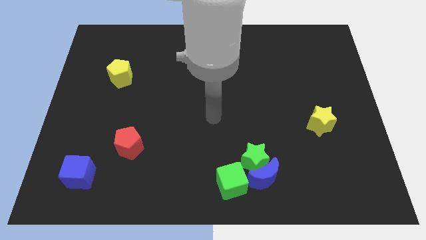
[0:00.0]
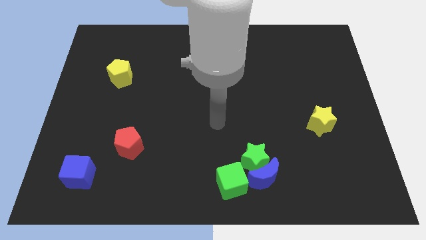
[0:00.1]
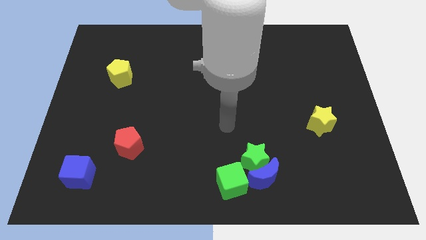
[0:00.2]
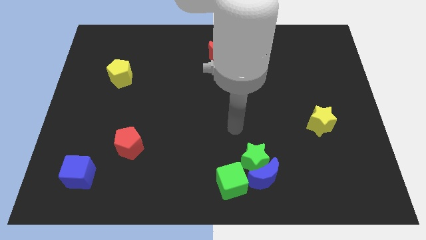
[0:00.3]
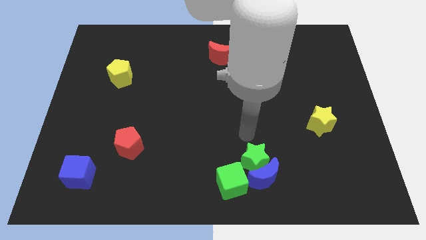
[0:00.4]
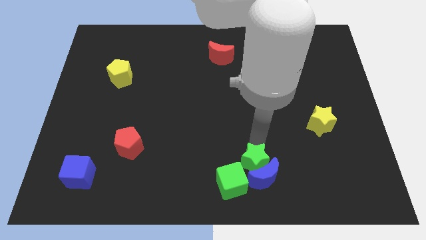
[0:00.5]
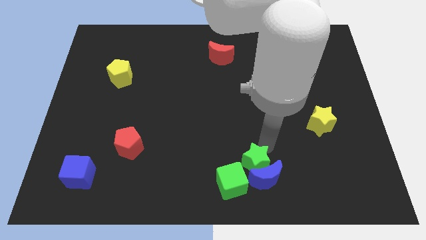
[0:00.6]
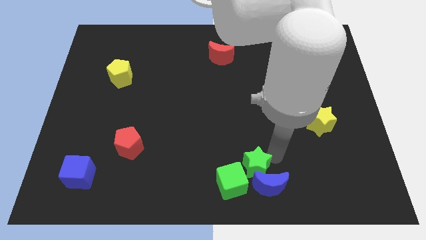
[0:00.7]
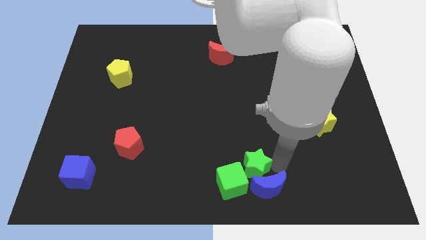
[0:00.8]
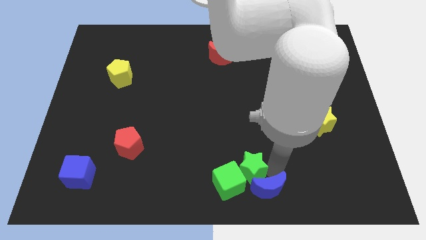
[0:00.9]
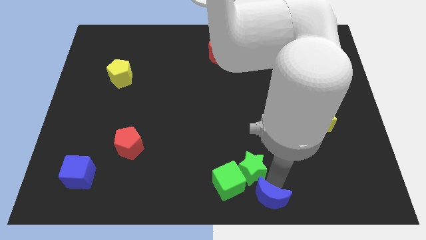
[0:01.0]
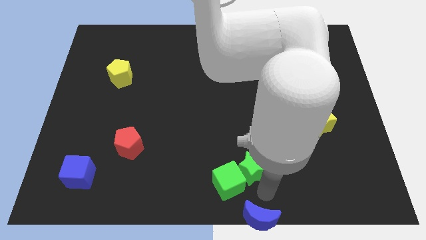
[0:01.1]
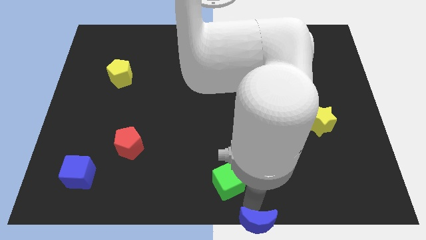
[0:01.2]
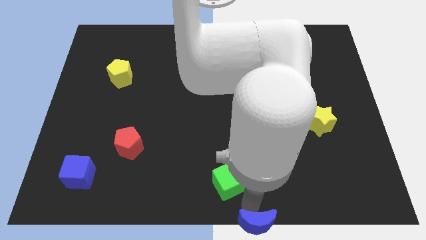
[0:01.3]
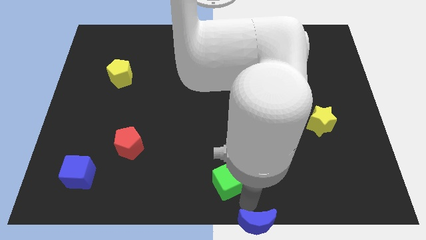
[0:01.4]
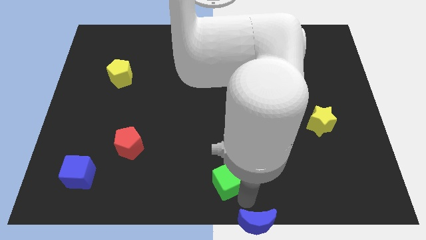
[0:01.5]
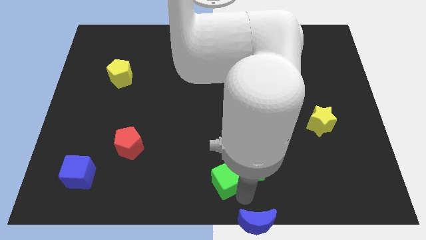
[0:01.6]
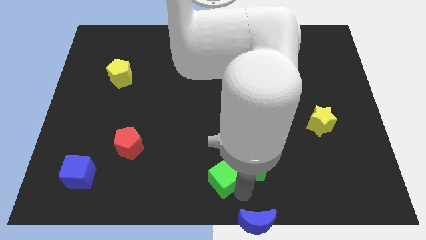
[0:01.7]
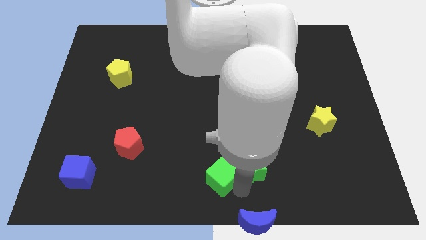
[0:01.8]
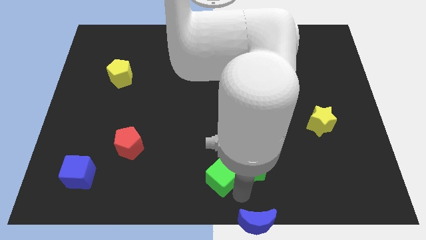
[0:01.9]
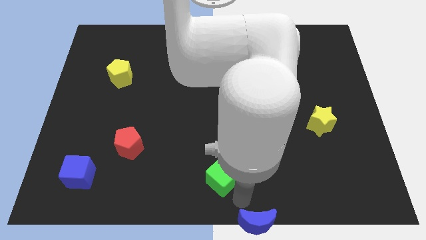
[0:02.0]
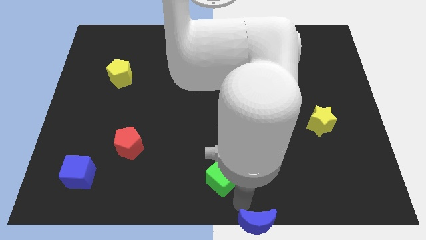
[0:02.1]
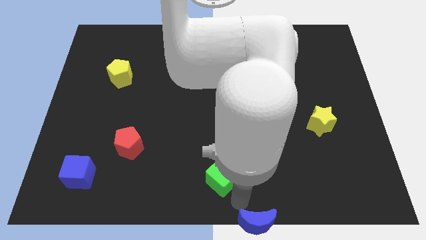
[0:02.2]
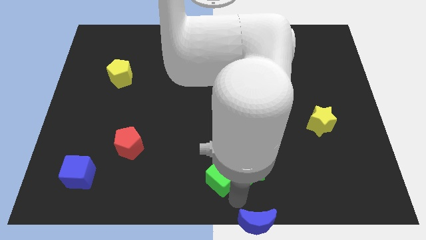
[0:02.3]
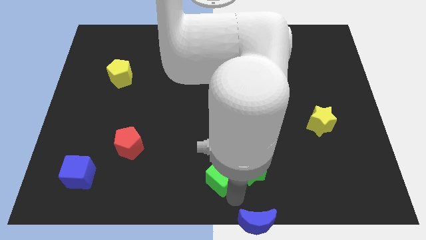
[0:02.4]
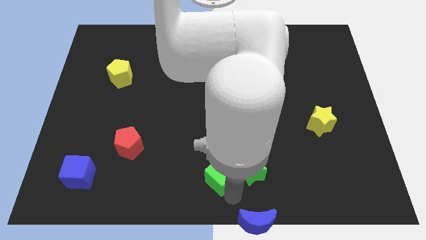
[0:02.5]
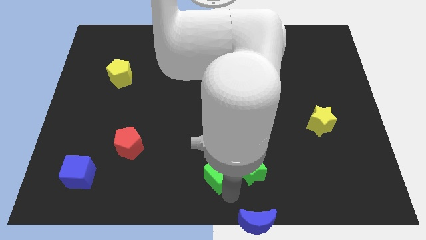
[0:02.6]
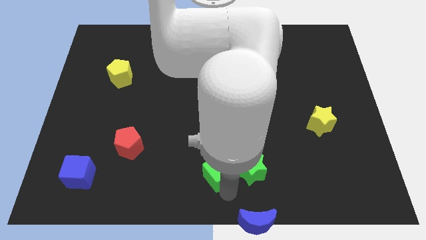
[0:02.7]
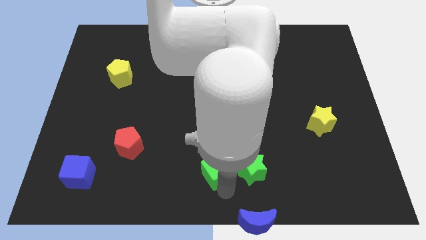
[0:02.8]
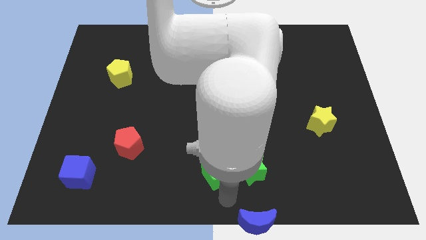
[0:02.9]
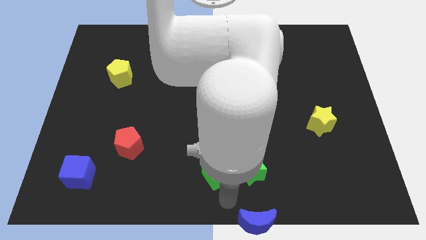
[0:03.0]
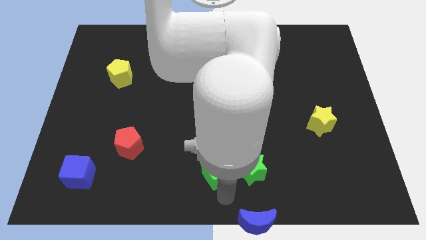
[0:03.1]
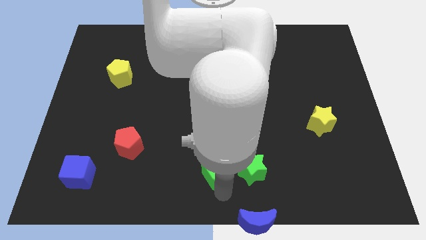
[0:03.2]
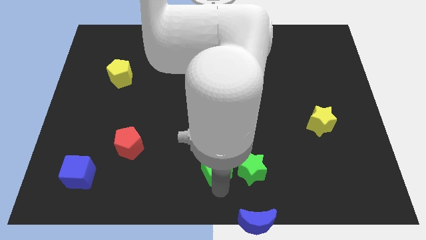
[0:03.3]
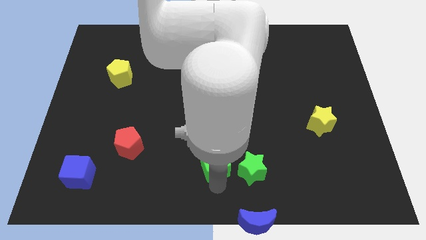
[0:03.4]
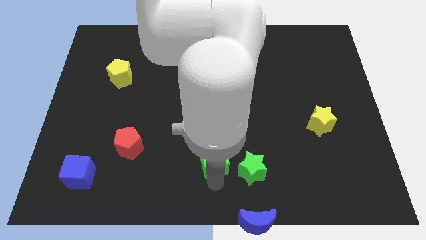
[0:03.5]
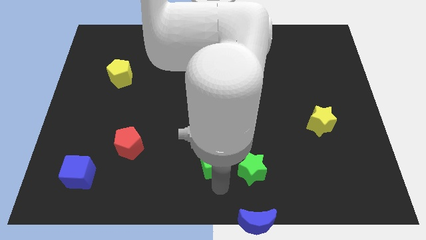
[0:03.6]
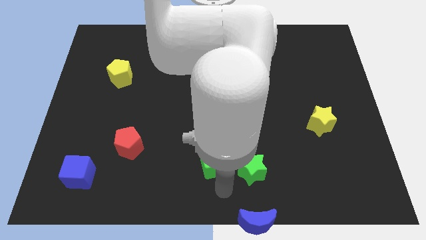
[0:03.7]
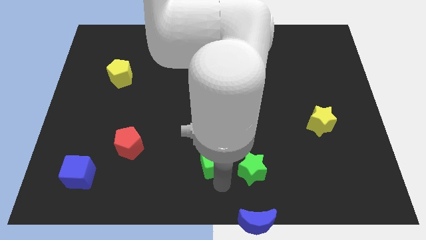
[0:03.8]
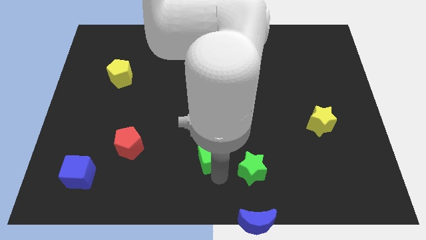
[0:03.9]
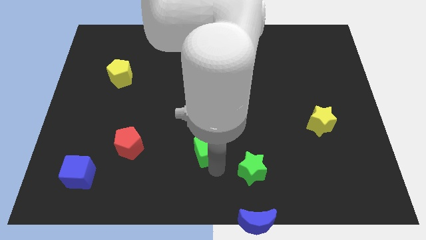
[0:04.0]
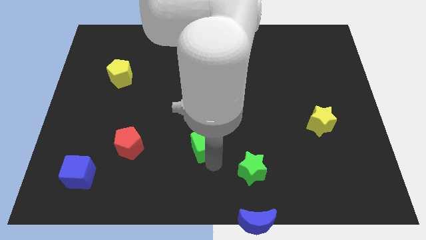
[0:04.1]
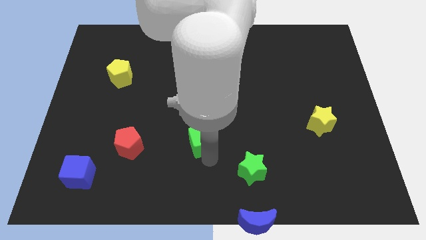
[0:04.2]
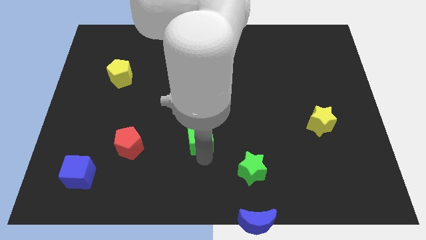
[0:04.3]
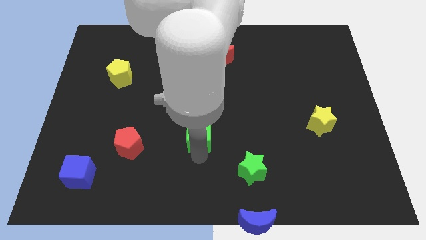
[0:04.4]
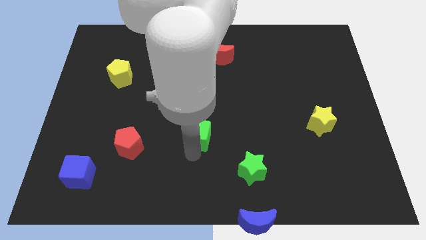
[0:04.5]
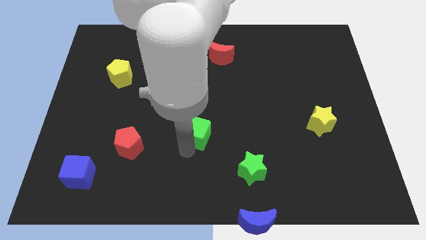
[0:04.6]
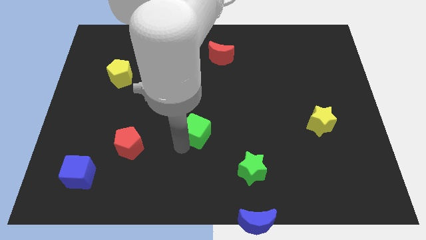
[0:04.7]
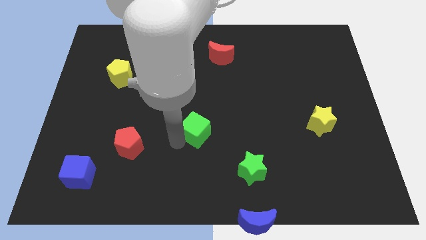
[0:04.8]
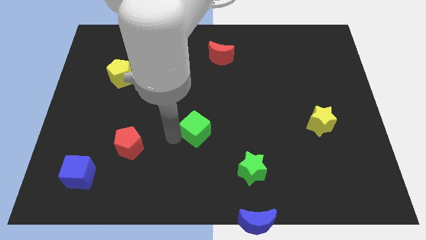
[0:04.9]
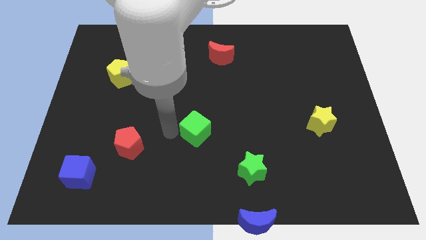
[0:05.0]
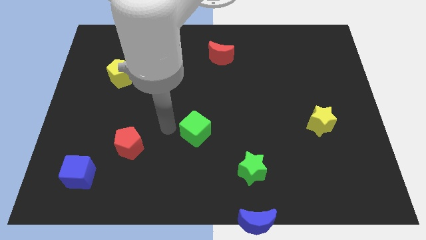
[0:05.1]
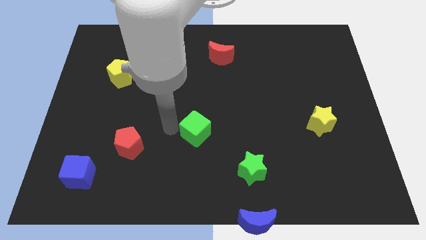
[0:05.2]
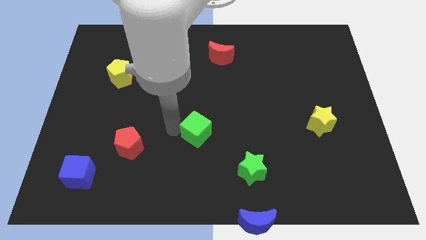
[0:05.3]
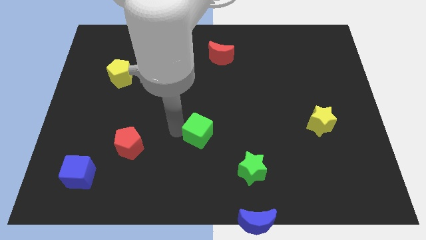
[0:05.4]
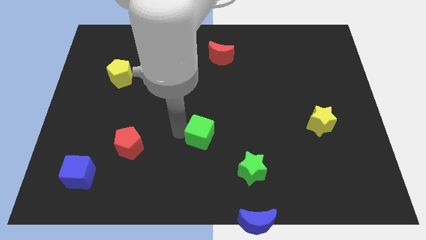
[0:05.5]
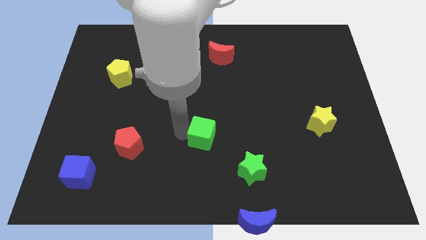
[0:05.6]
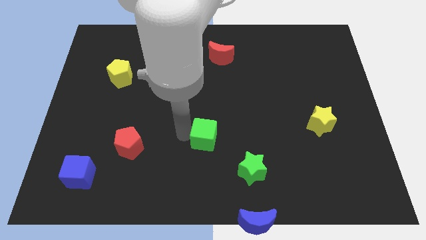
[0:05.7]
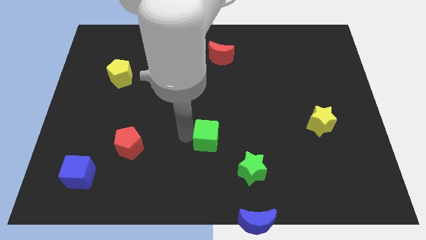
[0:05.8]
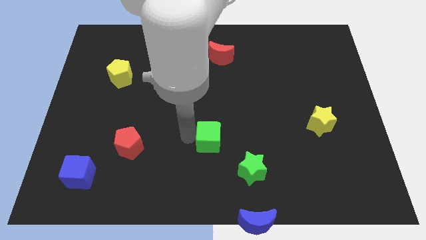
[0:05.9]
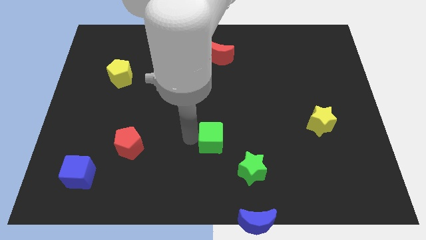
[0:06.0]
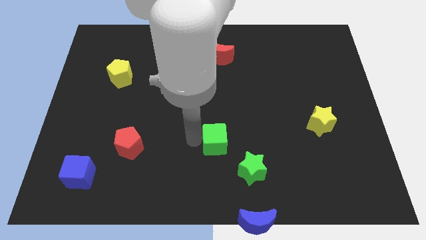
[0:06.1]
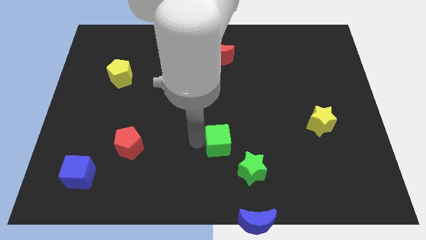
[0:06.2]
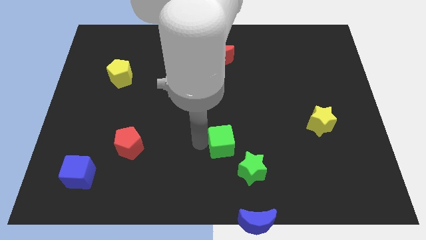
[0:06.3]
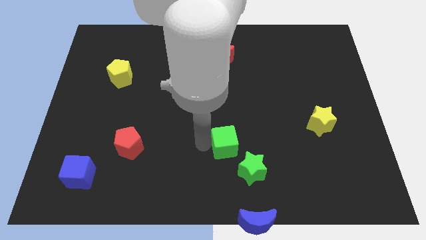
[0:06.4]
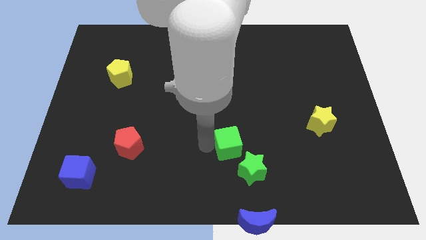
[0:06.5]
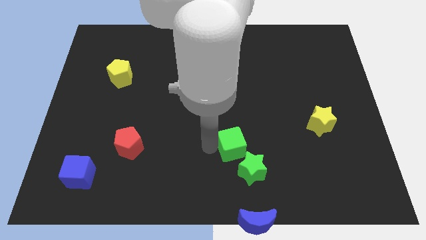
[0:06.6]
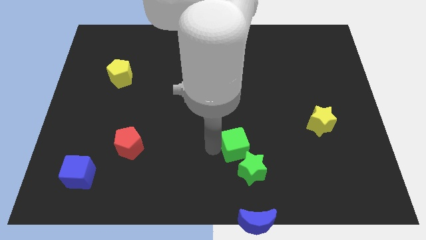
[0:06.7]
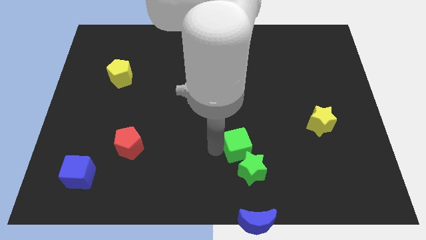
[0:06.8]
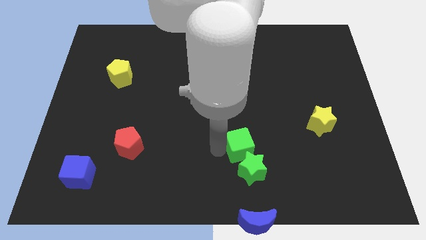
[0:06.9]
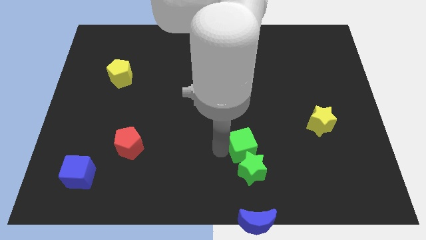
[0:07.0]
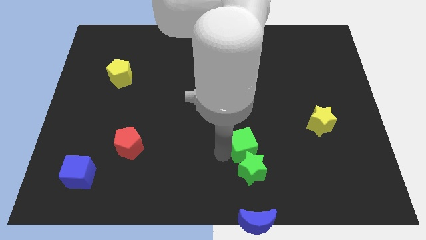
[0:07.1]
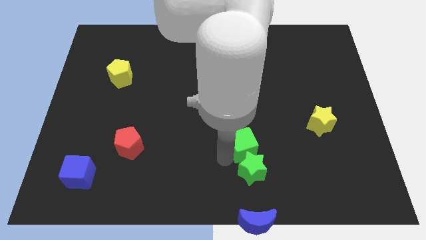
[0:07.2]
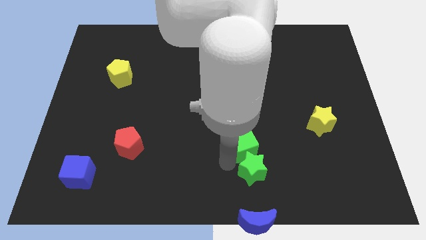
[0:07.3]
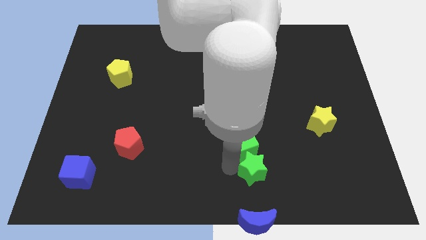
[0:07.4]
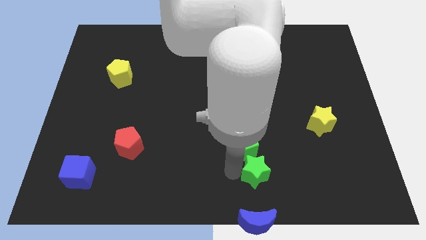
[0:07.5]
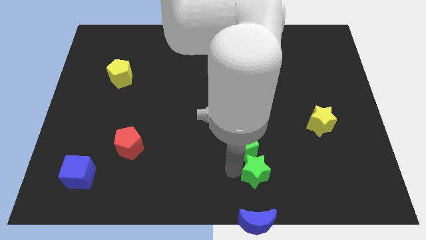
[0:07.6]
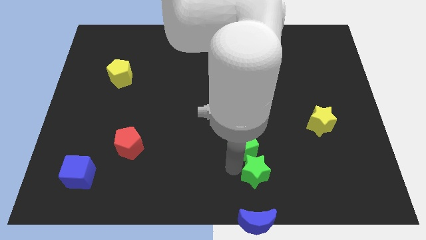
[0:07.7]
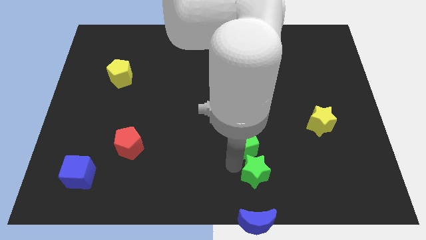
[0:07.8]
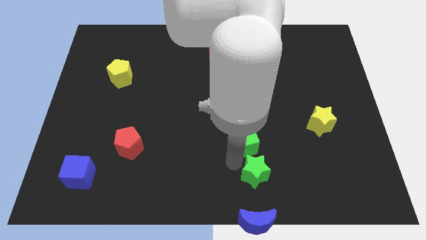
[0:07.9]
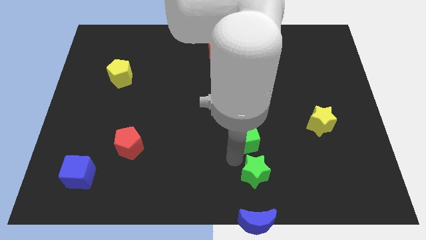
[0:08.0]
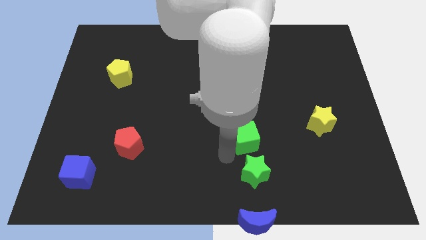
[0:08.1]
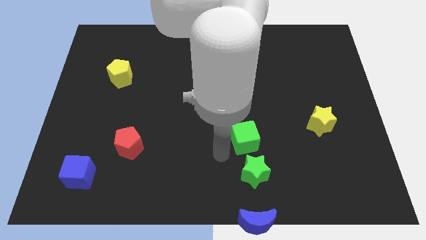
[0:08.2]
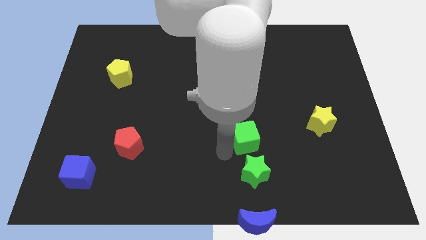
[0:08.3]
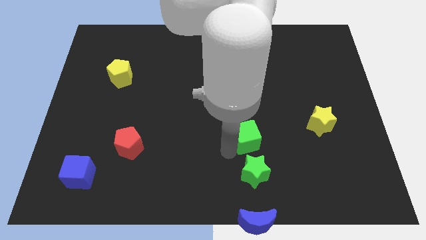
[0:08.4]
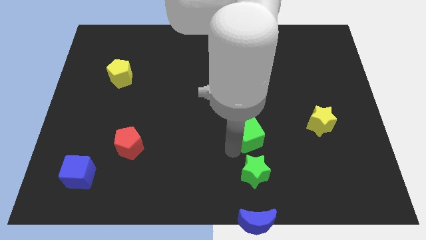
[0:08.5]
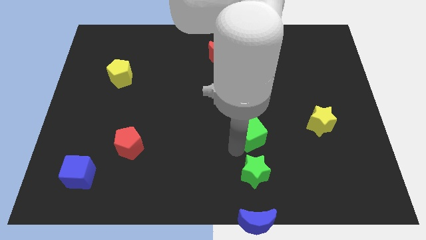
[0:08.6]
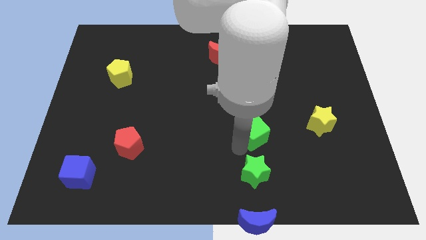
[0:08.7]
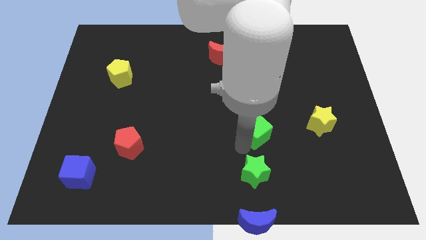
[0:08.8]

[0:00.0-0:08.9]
move the green cube to the left side of the yellow star
